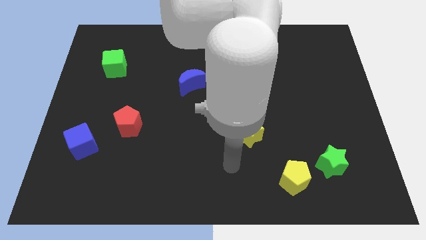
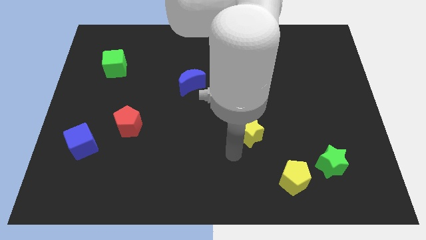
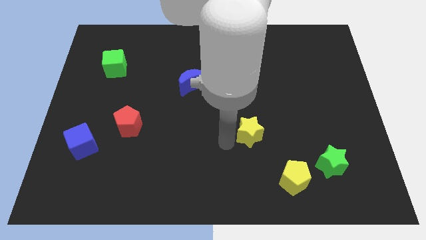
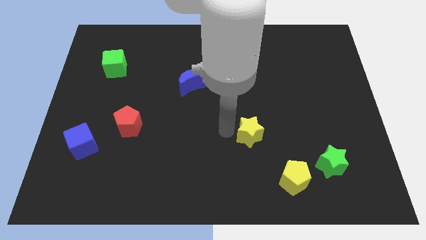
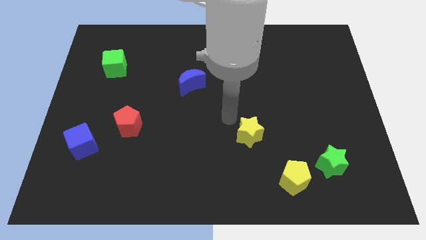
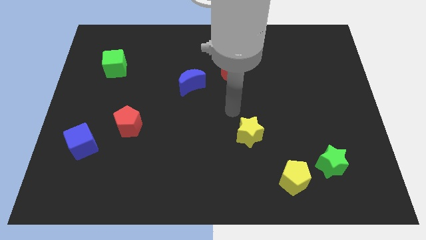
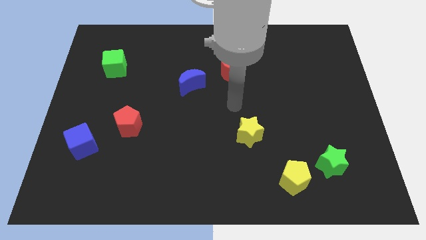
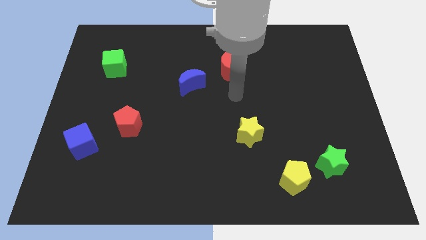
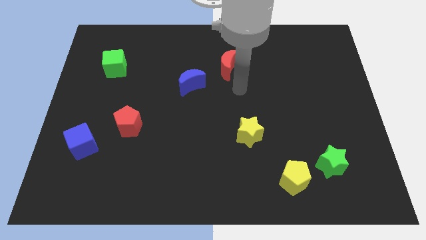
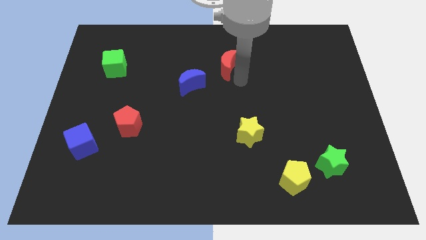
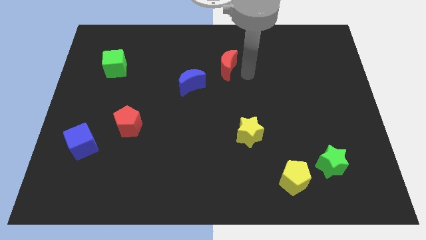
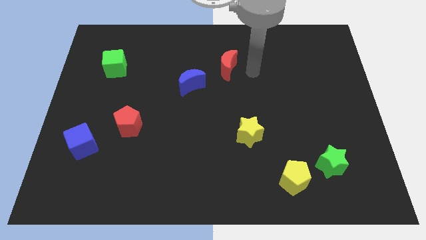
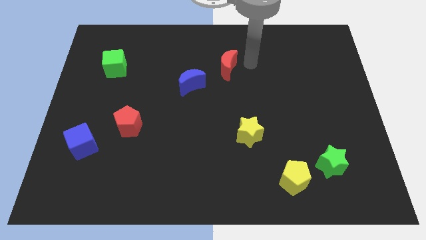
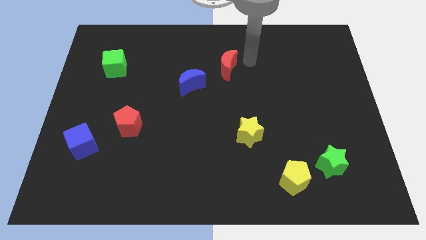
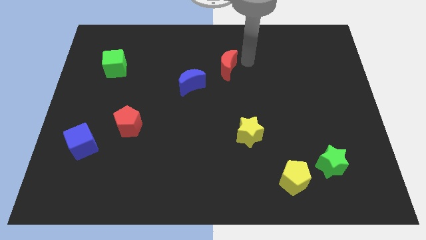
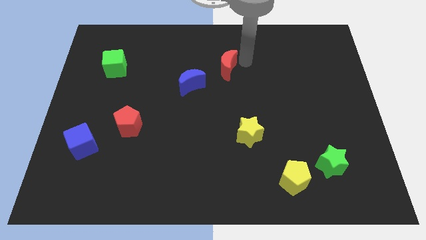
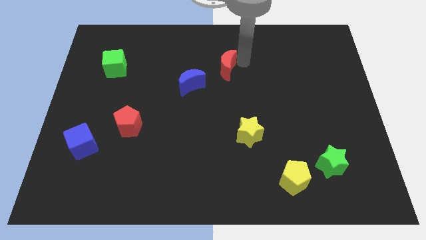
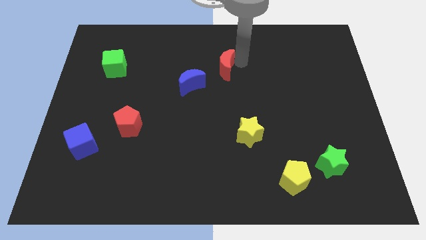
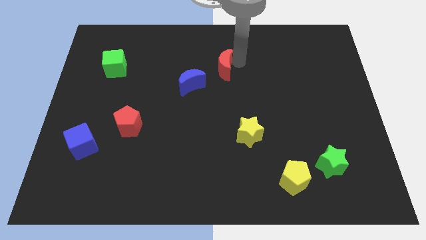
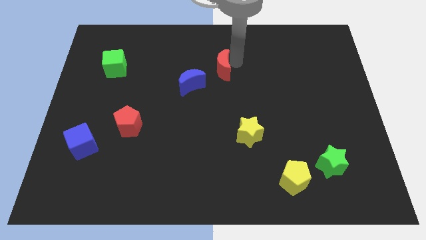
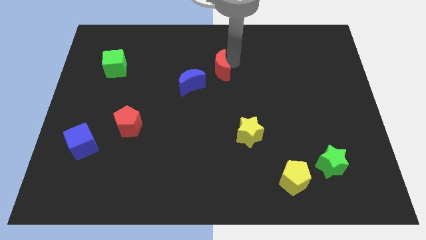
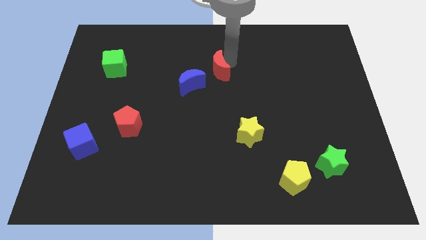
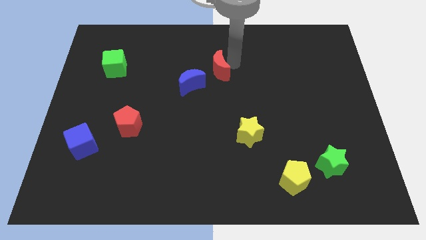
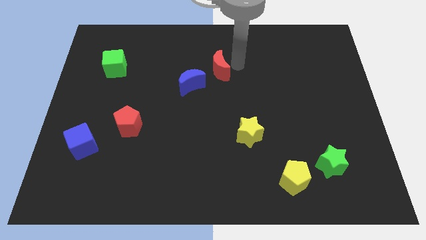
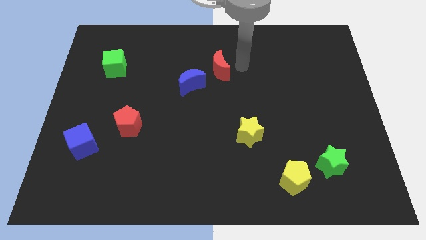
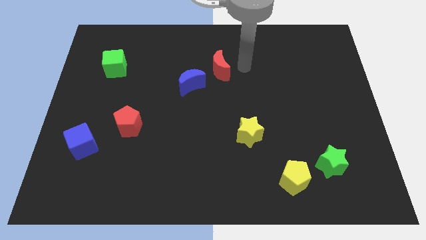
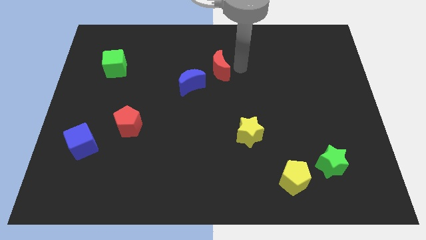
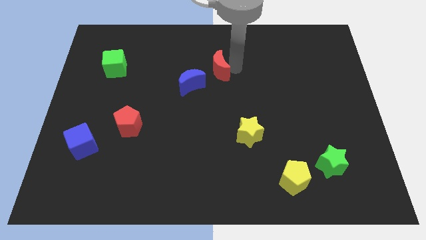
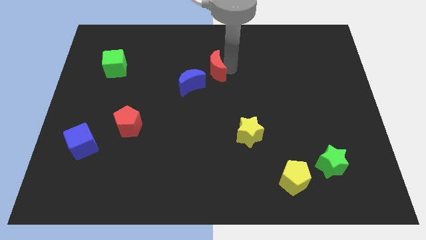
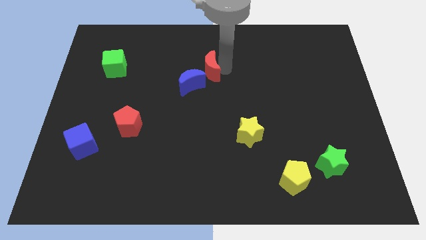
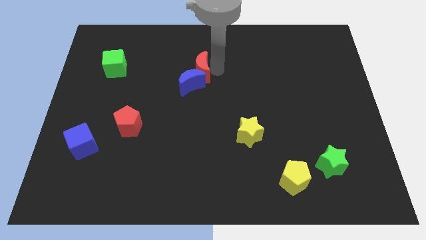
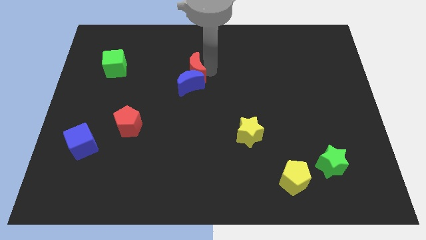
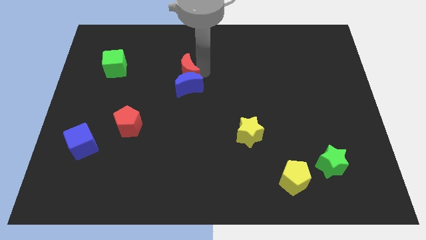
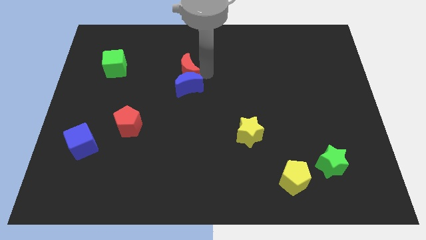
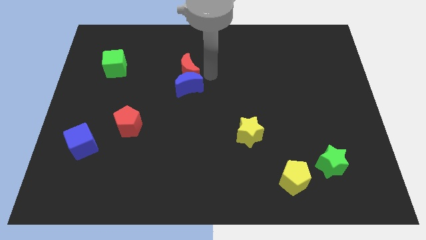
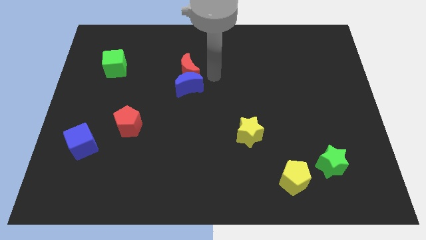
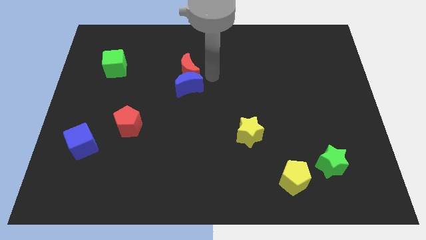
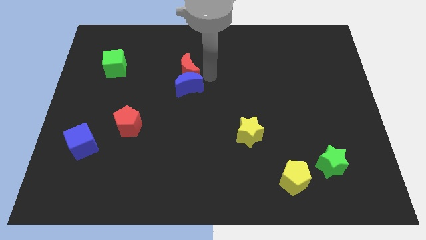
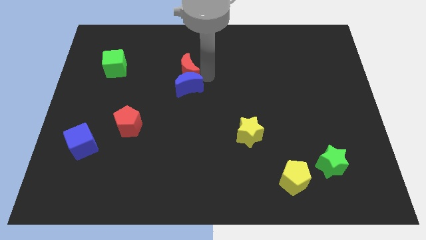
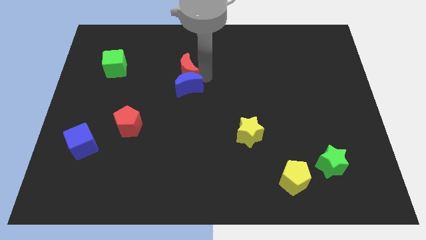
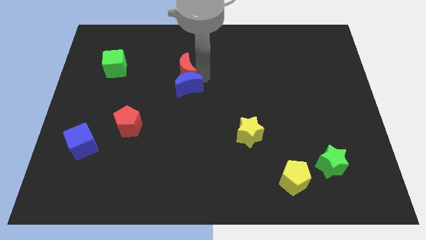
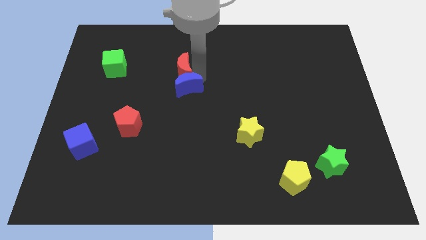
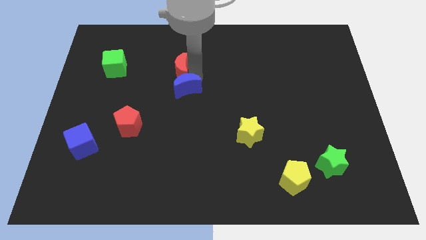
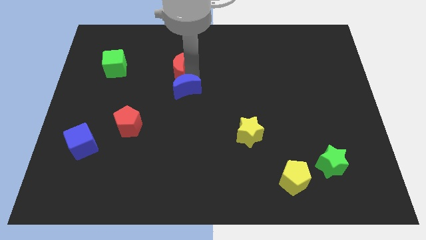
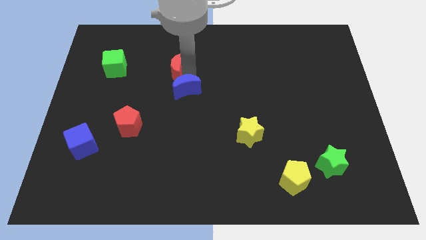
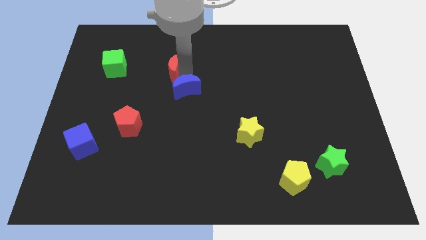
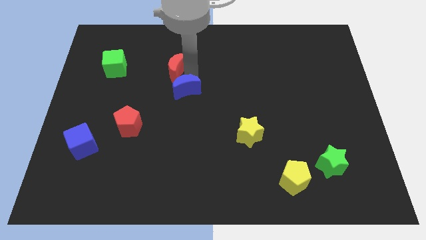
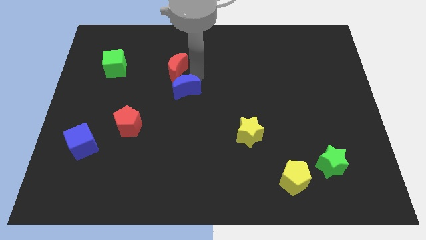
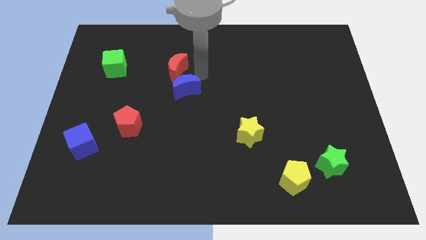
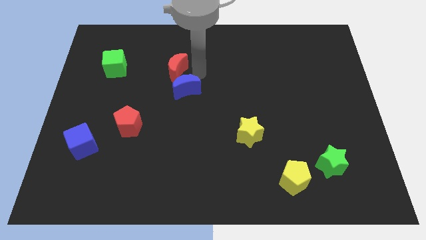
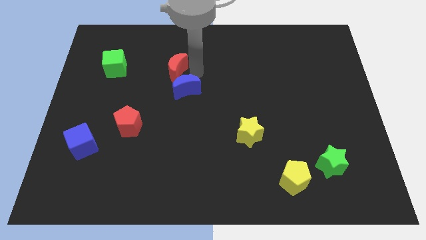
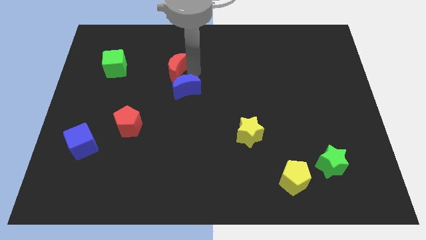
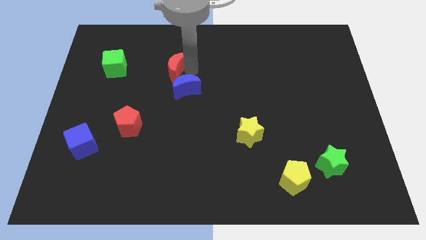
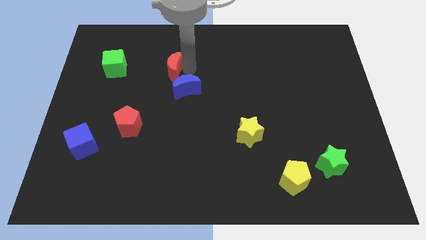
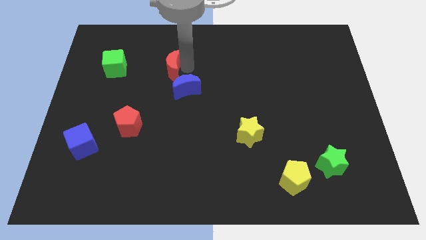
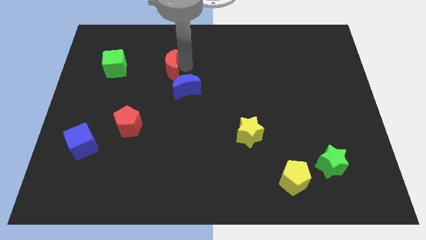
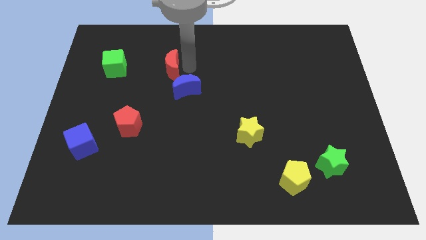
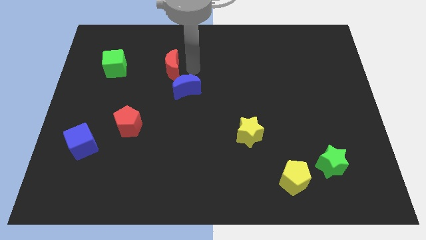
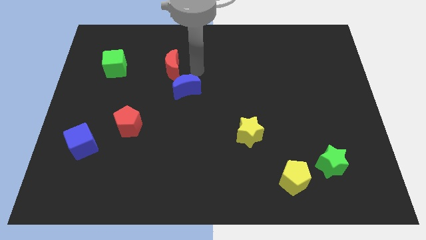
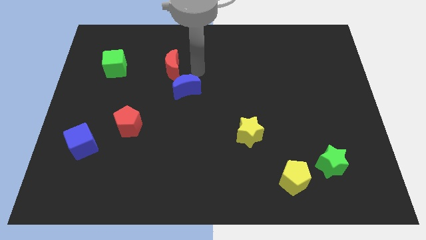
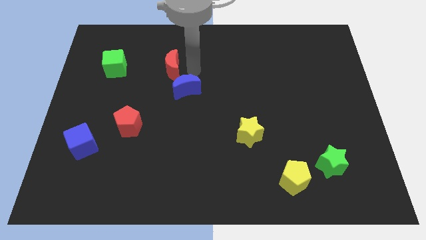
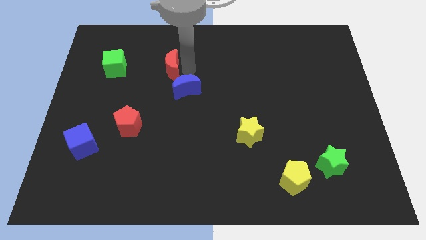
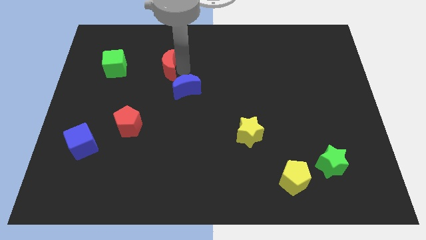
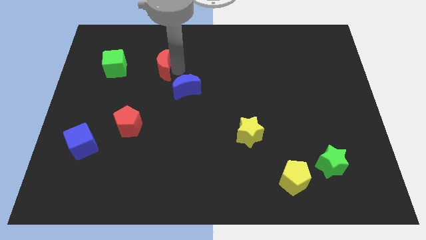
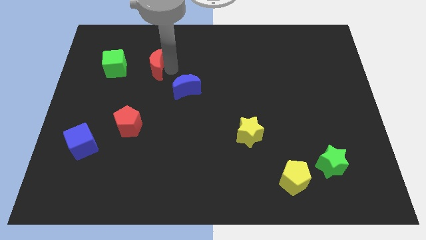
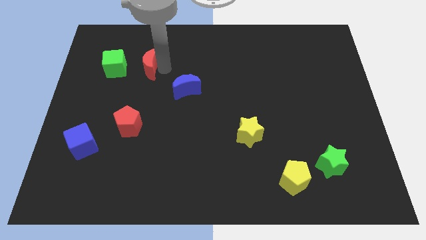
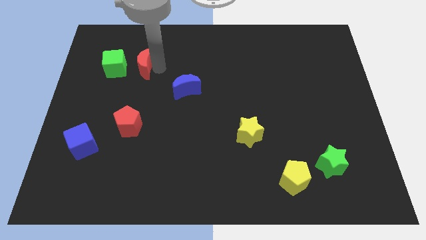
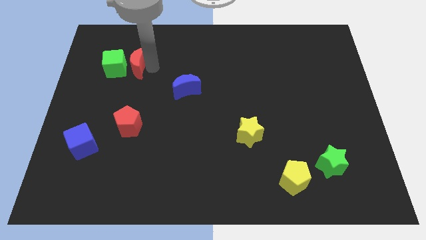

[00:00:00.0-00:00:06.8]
move the red moon next to the green cube
